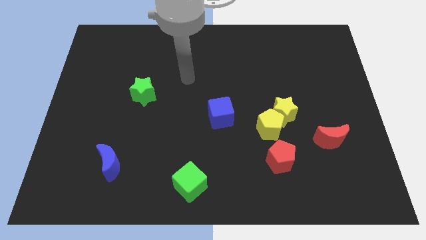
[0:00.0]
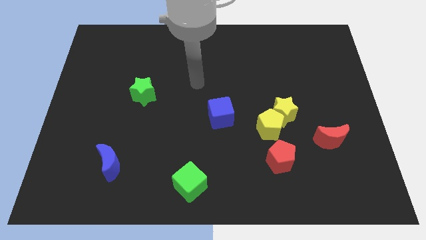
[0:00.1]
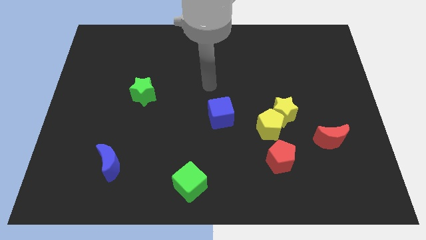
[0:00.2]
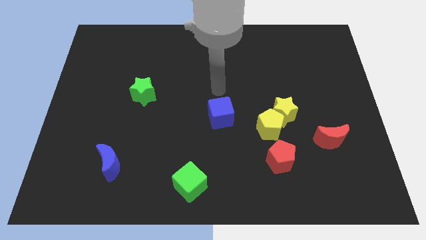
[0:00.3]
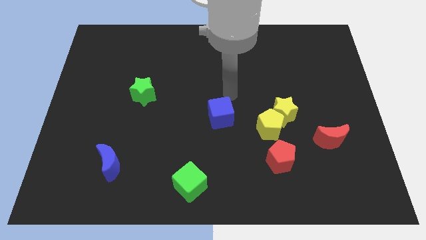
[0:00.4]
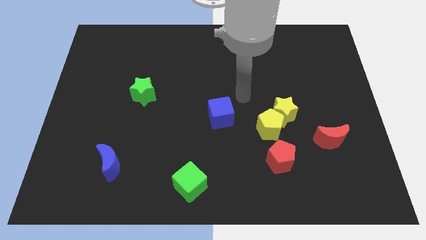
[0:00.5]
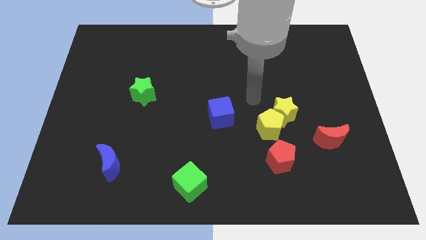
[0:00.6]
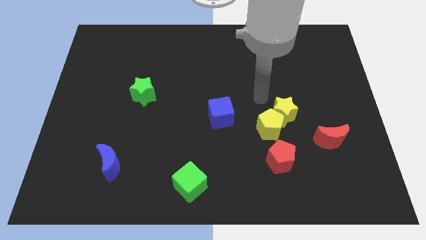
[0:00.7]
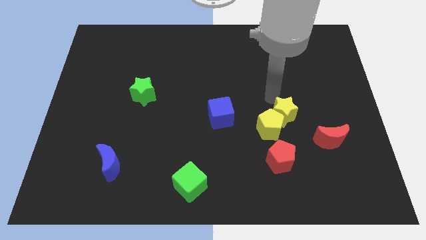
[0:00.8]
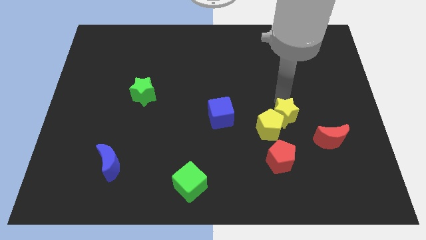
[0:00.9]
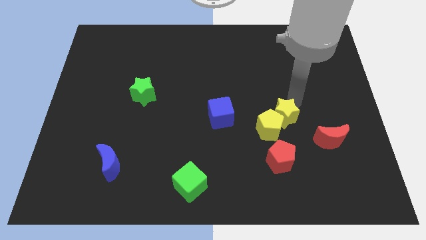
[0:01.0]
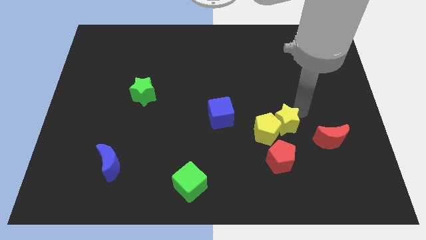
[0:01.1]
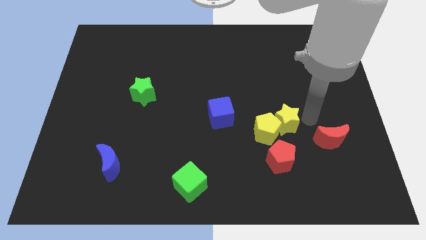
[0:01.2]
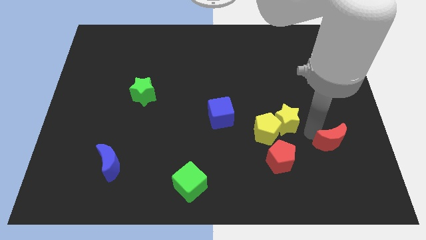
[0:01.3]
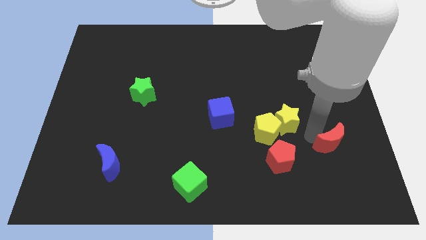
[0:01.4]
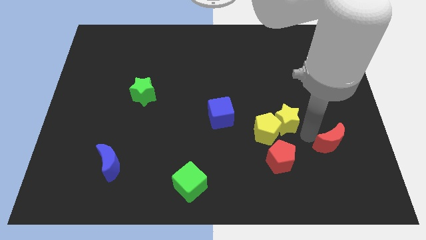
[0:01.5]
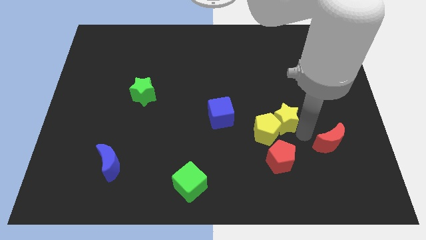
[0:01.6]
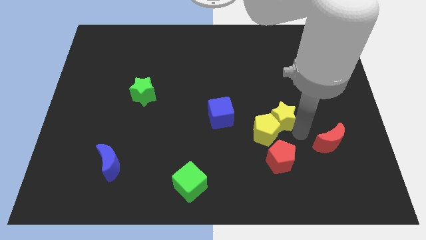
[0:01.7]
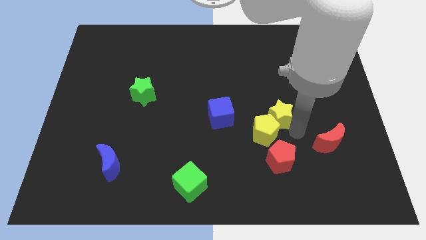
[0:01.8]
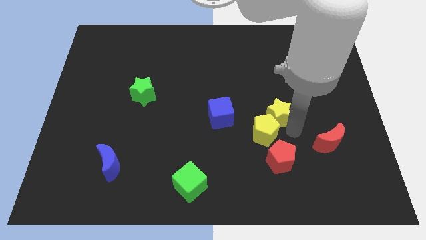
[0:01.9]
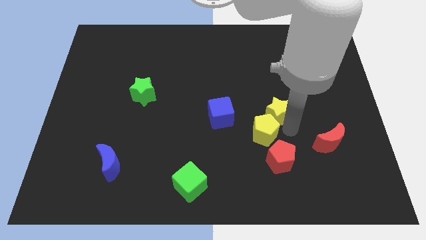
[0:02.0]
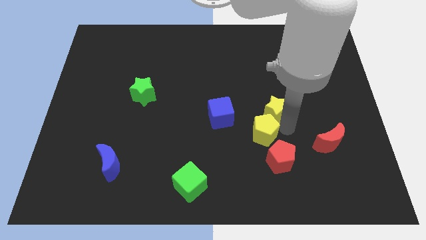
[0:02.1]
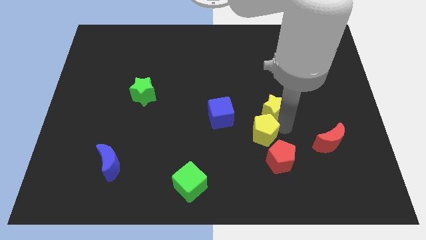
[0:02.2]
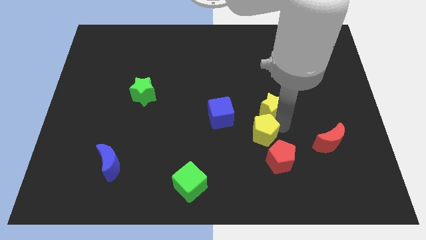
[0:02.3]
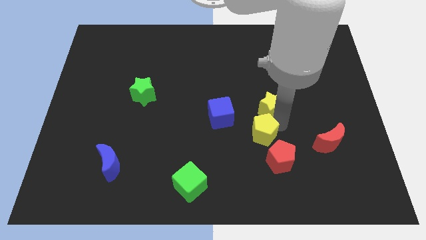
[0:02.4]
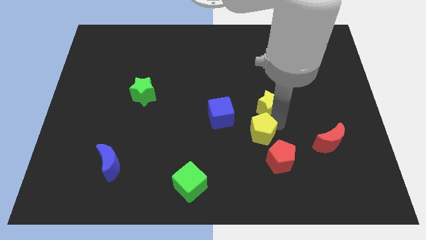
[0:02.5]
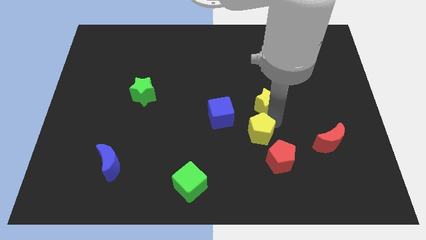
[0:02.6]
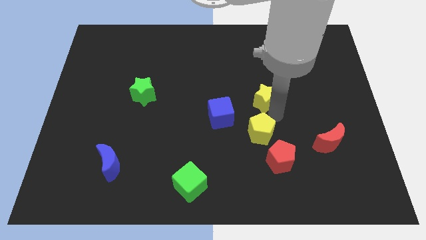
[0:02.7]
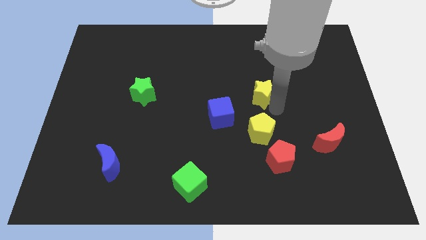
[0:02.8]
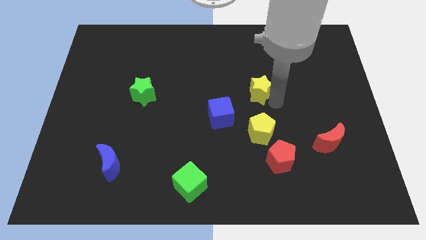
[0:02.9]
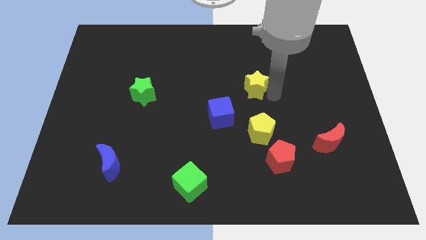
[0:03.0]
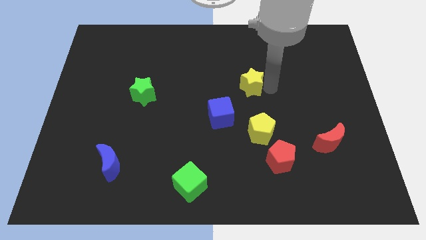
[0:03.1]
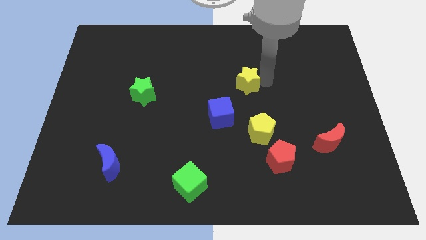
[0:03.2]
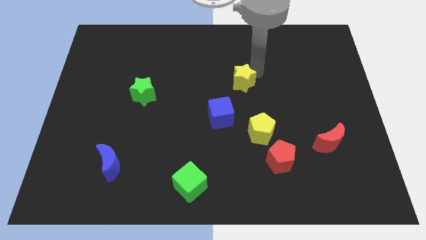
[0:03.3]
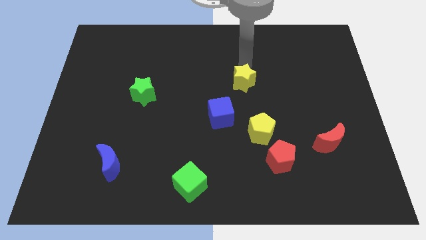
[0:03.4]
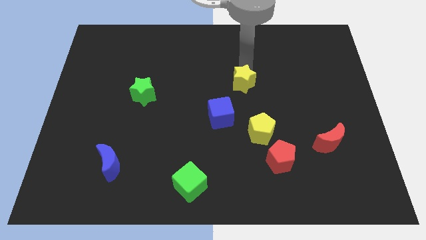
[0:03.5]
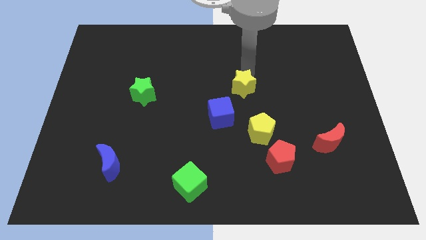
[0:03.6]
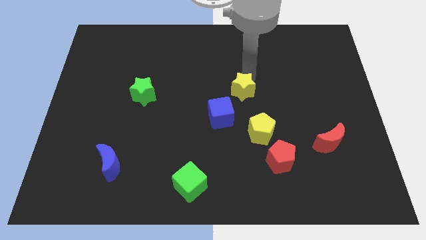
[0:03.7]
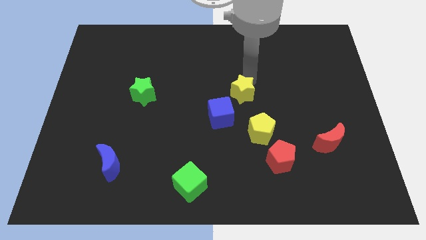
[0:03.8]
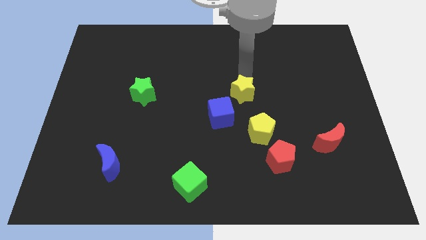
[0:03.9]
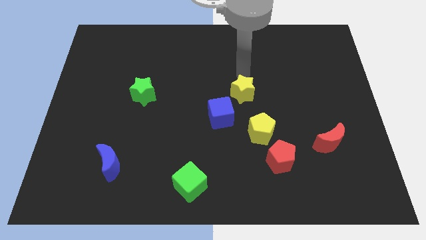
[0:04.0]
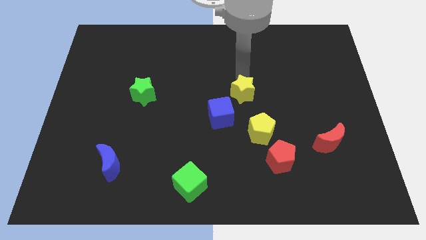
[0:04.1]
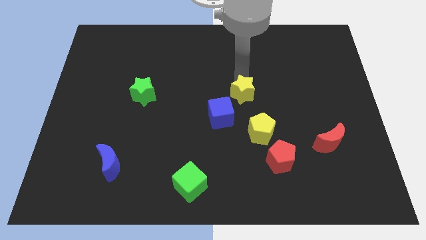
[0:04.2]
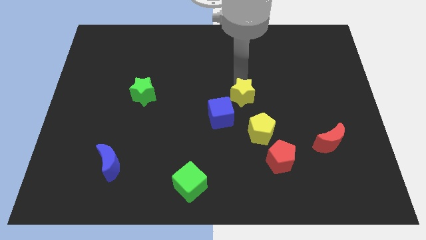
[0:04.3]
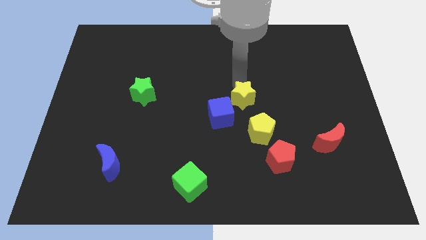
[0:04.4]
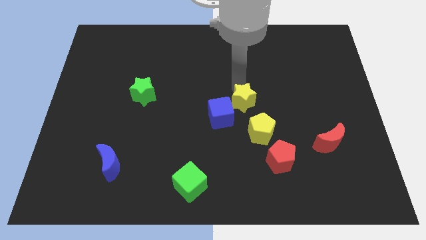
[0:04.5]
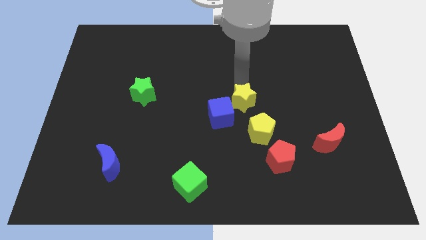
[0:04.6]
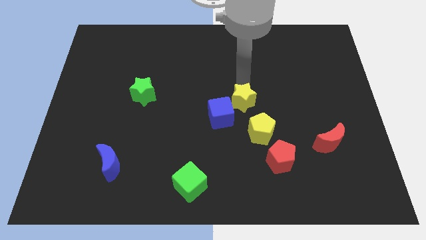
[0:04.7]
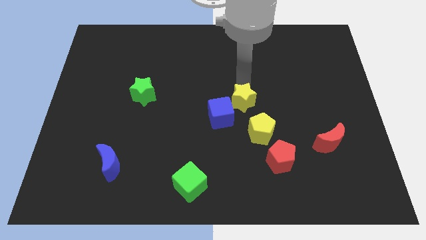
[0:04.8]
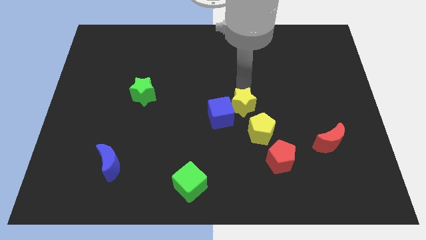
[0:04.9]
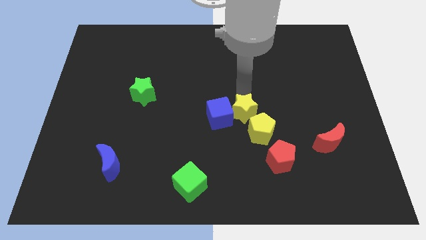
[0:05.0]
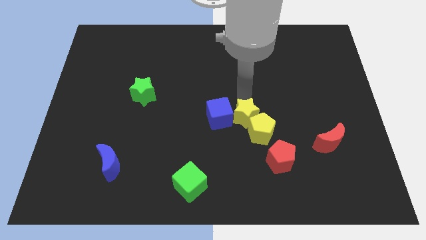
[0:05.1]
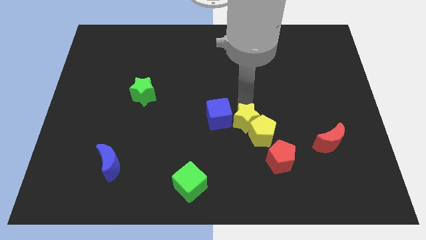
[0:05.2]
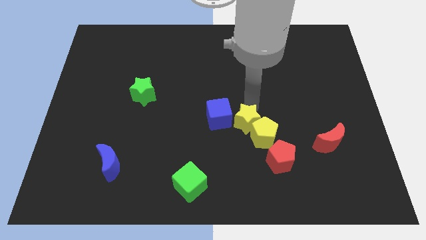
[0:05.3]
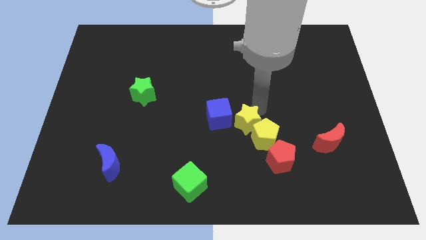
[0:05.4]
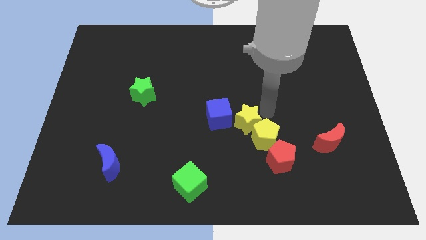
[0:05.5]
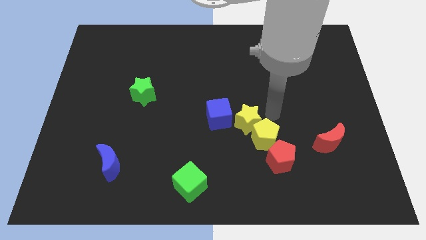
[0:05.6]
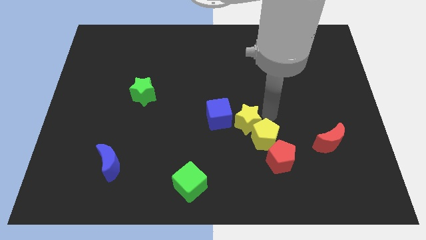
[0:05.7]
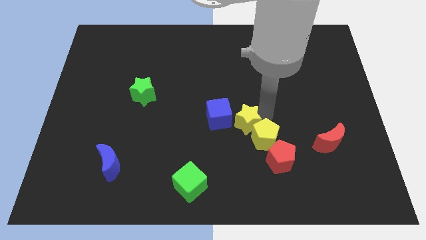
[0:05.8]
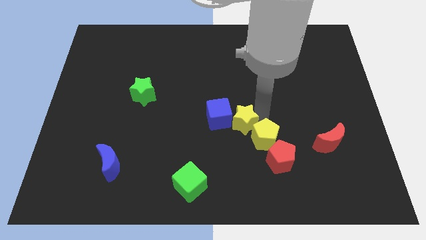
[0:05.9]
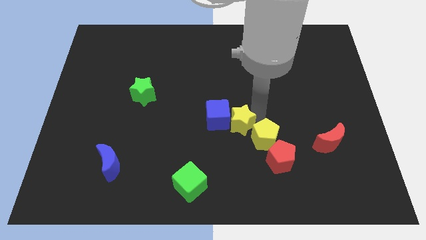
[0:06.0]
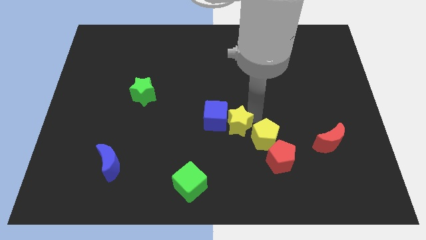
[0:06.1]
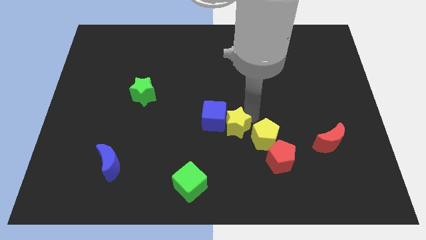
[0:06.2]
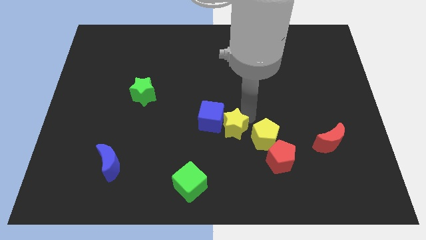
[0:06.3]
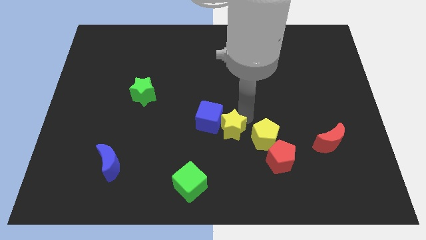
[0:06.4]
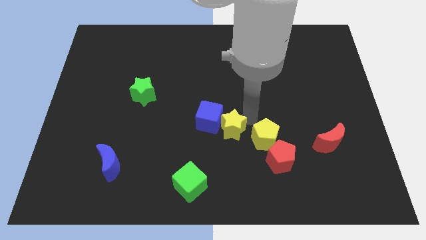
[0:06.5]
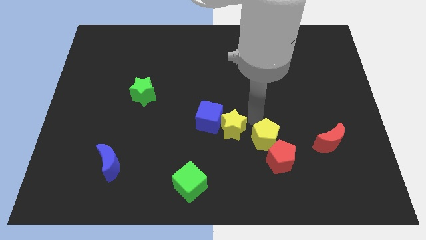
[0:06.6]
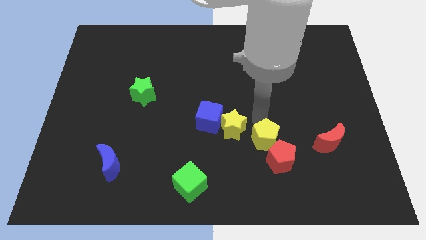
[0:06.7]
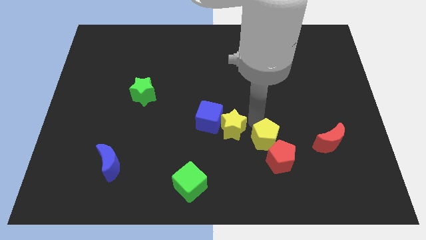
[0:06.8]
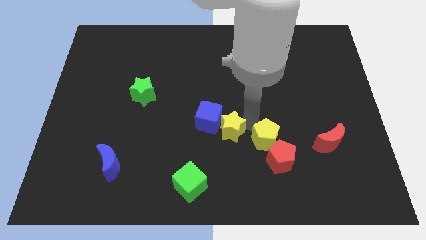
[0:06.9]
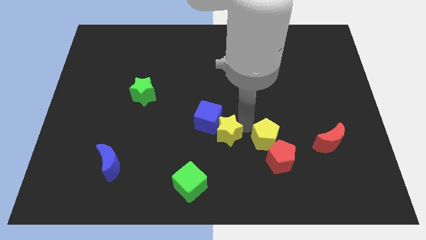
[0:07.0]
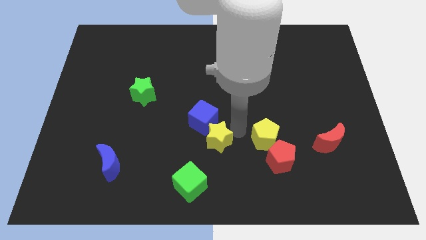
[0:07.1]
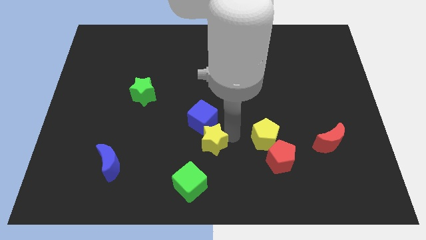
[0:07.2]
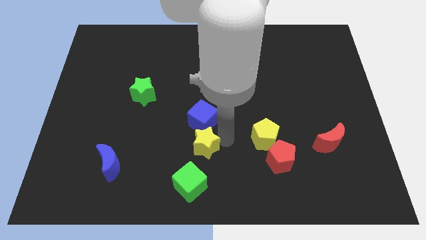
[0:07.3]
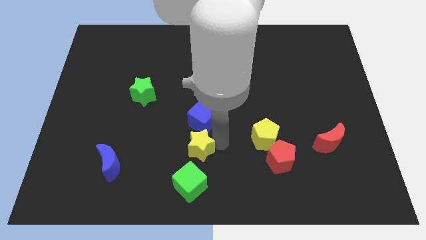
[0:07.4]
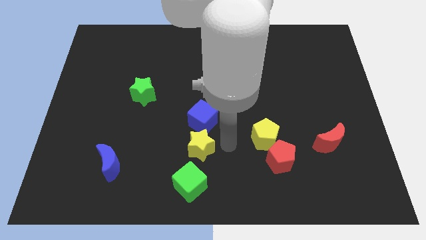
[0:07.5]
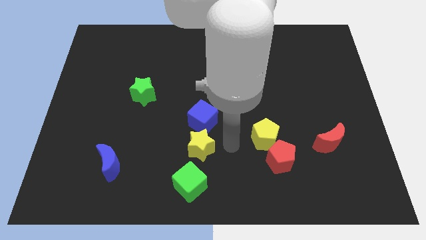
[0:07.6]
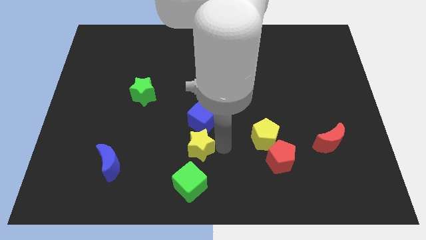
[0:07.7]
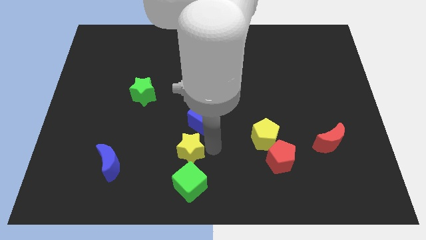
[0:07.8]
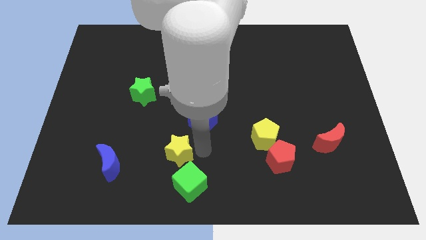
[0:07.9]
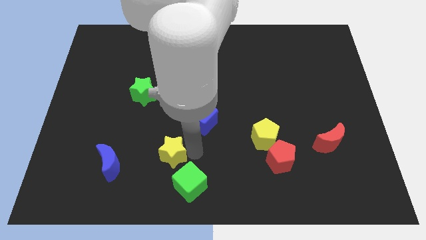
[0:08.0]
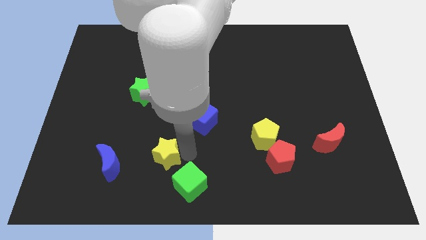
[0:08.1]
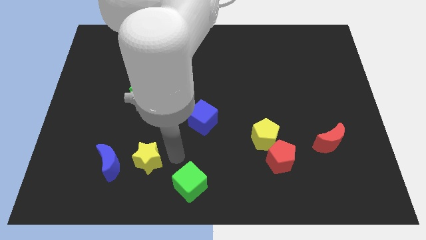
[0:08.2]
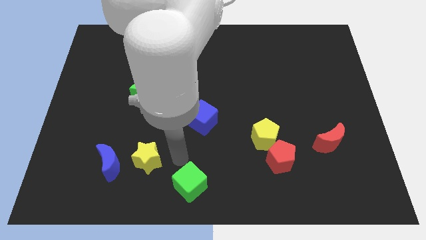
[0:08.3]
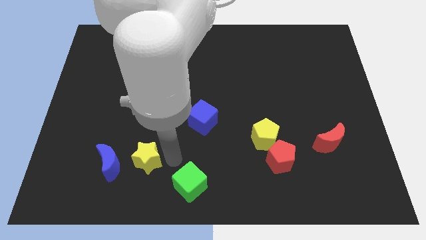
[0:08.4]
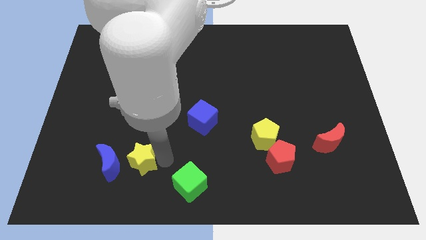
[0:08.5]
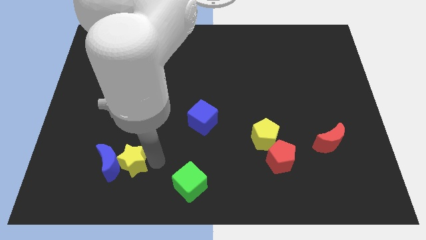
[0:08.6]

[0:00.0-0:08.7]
slide the yellow star to the blue moon
